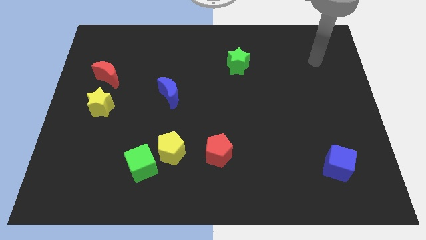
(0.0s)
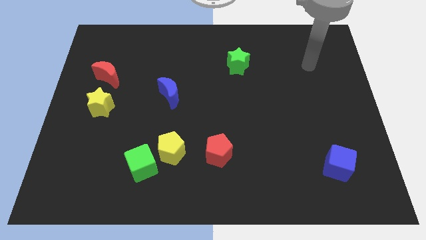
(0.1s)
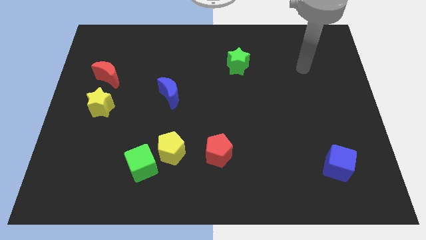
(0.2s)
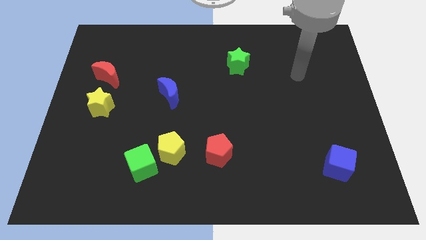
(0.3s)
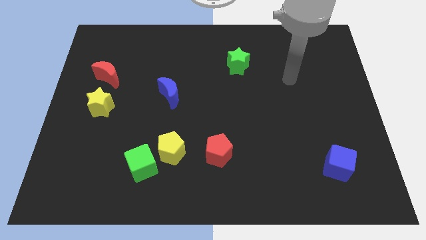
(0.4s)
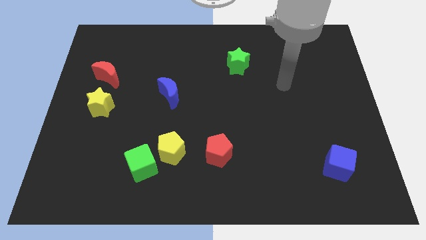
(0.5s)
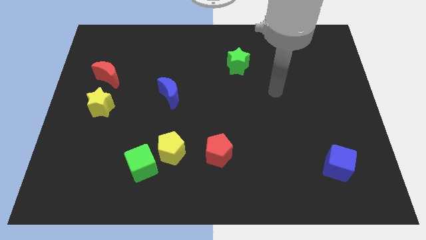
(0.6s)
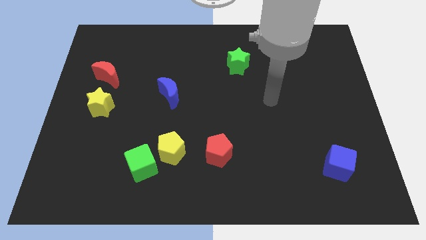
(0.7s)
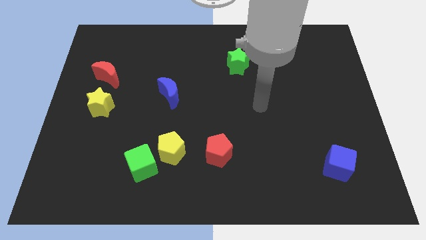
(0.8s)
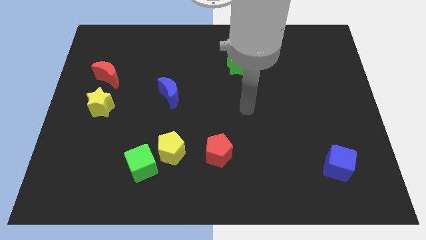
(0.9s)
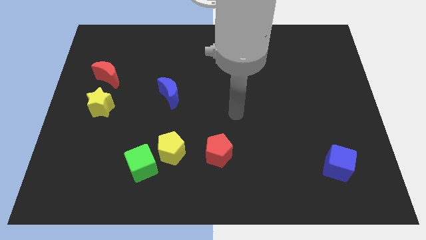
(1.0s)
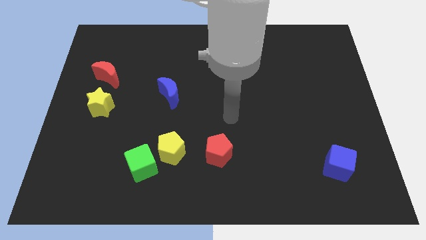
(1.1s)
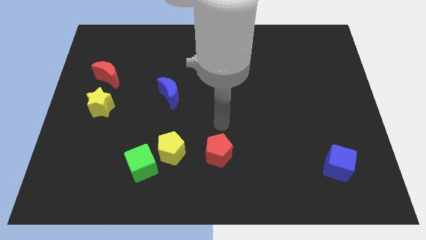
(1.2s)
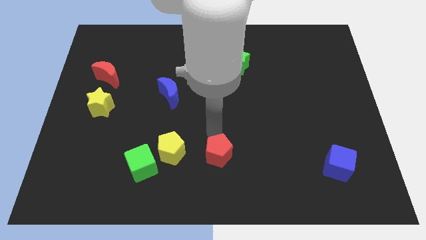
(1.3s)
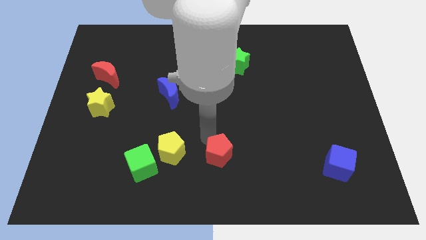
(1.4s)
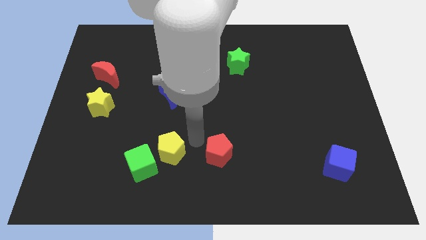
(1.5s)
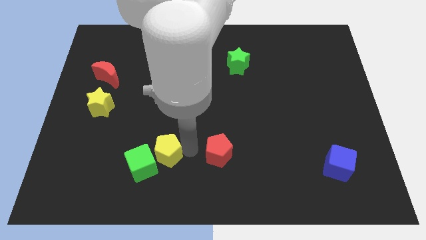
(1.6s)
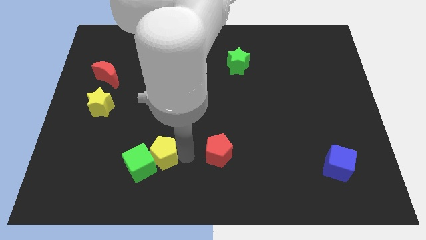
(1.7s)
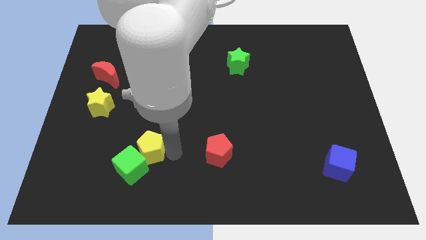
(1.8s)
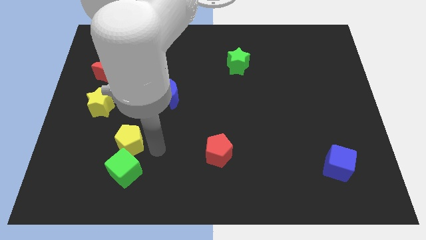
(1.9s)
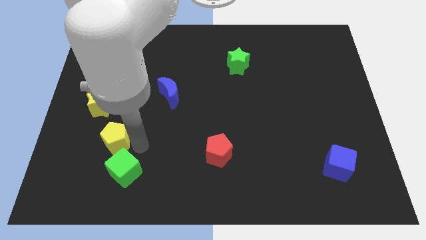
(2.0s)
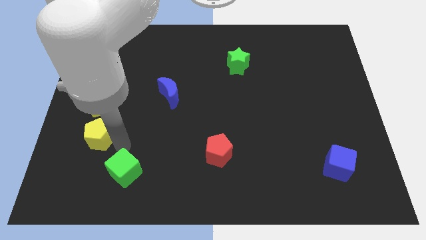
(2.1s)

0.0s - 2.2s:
separate the green cube from the yellow pentagon

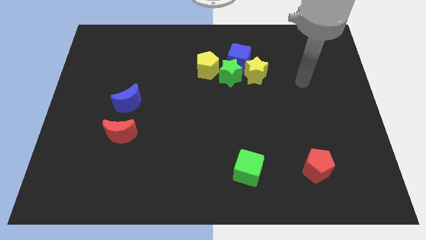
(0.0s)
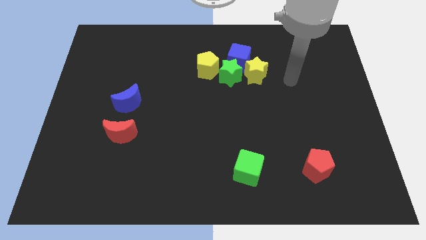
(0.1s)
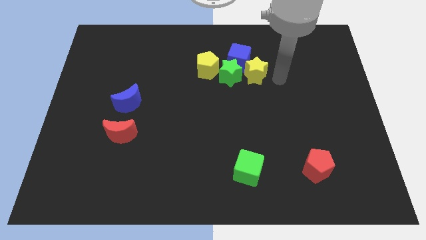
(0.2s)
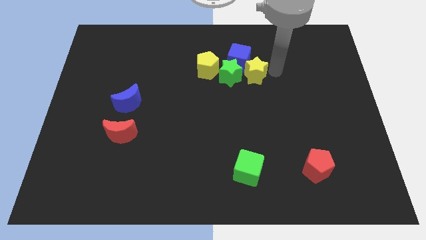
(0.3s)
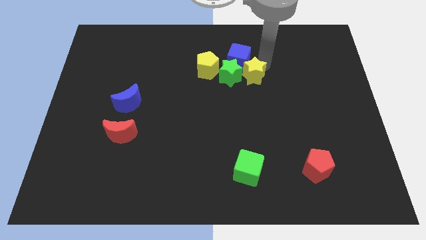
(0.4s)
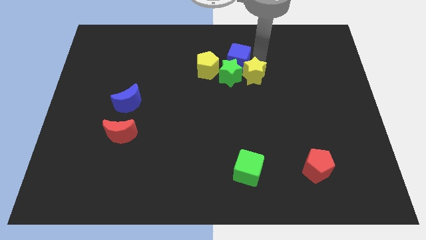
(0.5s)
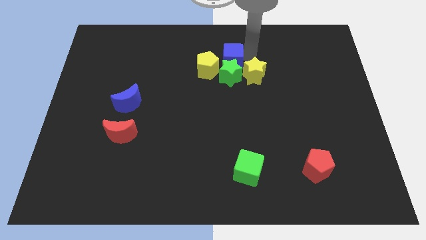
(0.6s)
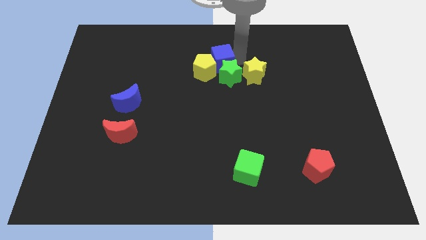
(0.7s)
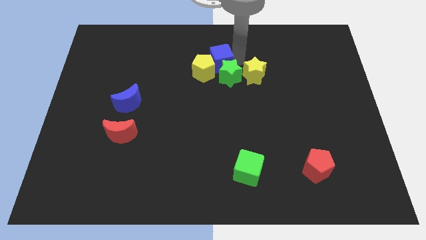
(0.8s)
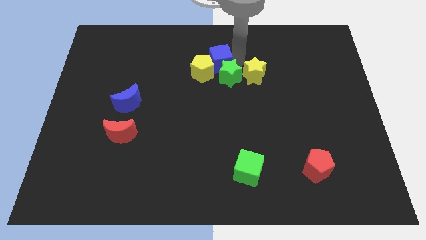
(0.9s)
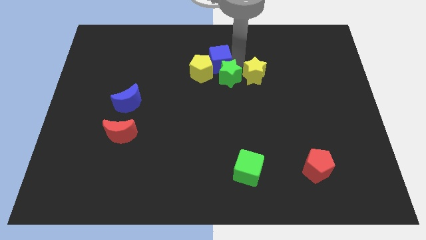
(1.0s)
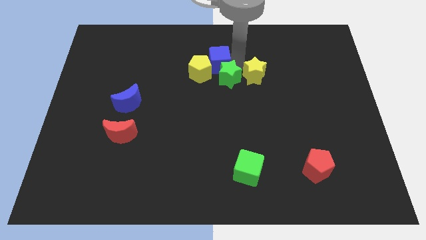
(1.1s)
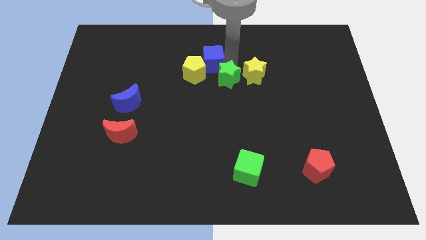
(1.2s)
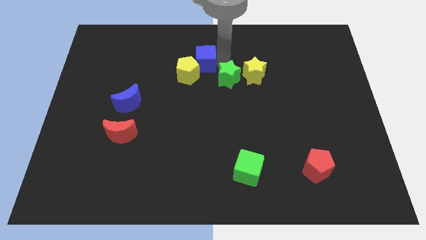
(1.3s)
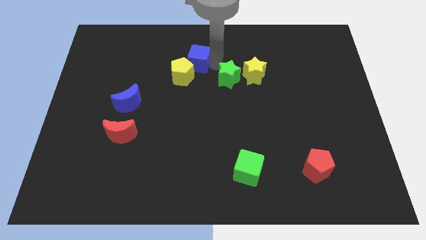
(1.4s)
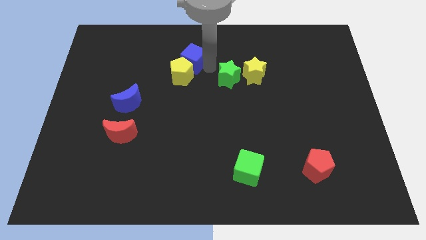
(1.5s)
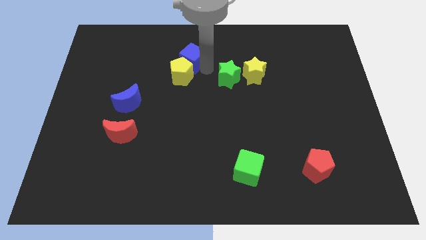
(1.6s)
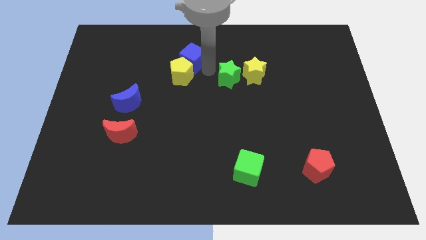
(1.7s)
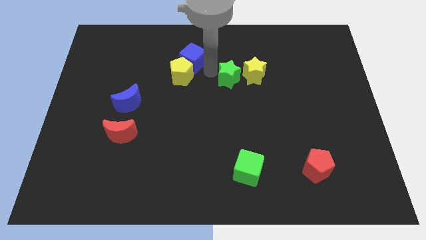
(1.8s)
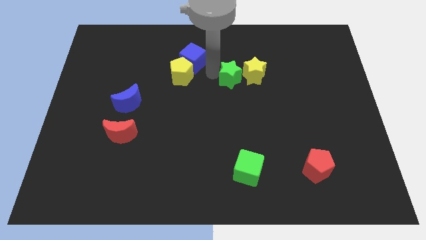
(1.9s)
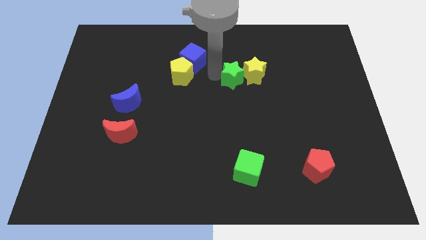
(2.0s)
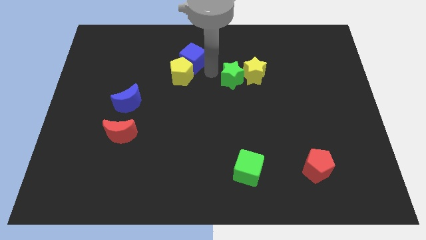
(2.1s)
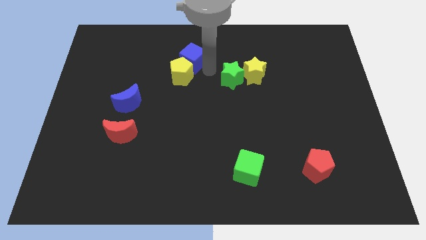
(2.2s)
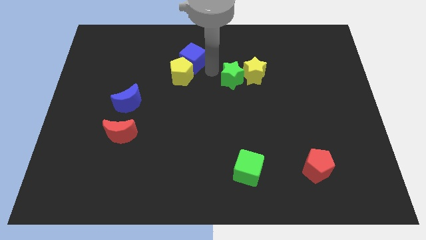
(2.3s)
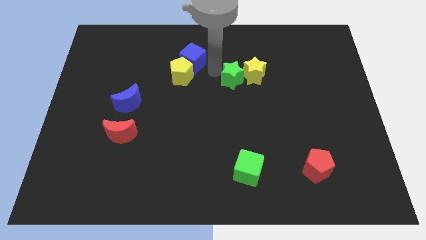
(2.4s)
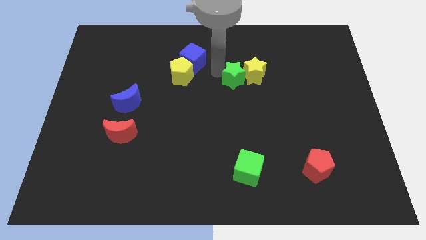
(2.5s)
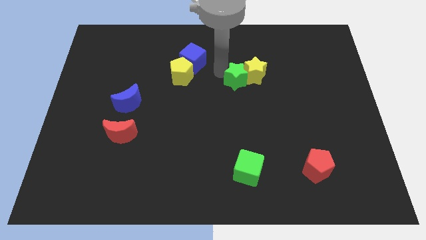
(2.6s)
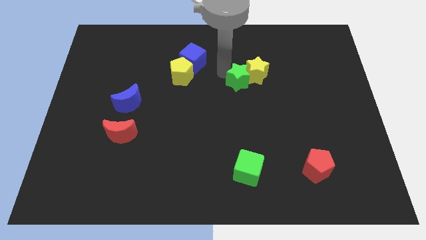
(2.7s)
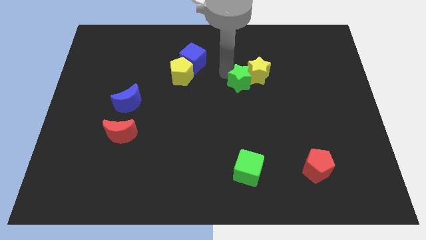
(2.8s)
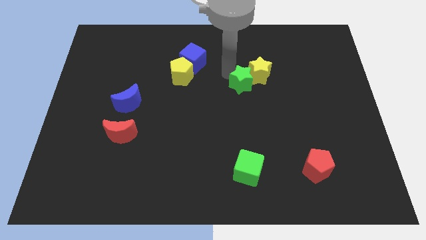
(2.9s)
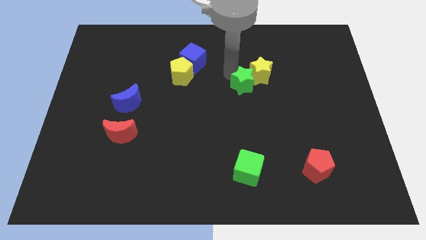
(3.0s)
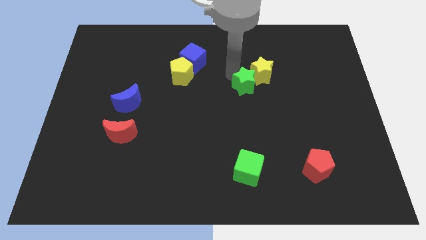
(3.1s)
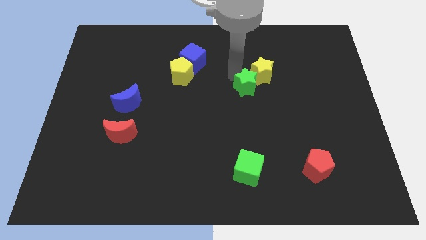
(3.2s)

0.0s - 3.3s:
move the green star away from the blue cube, yellow pentagon, and yellow star

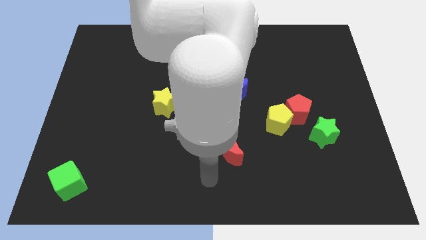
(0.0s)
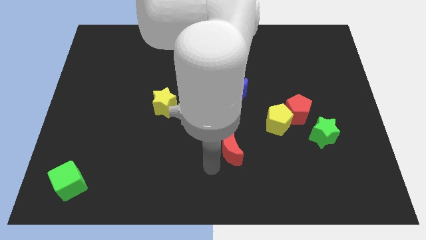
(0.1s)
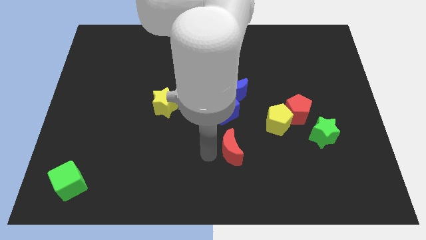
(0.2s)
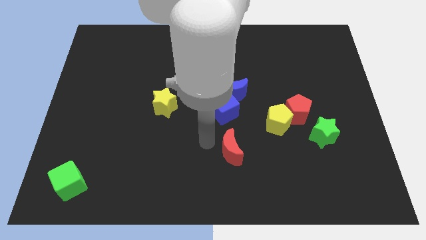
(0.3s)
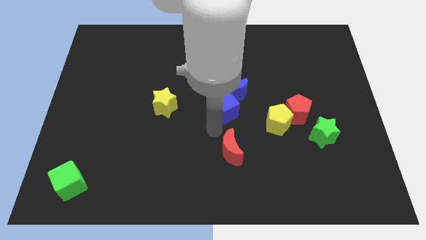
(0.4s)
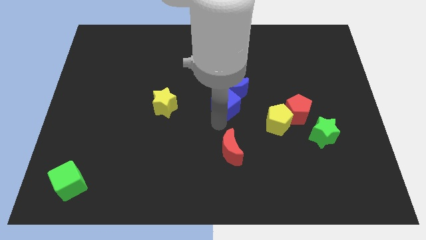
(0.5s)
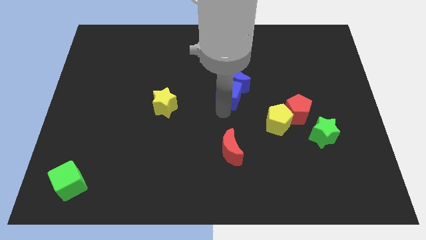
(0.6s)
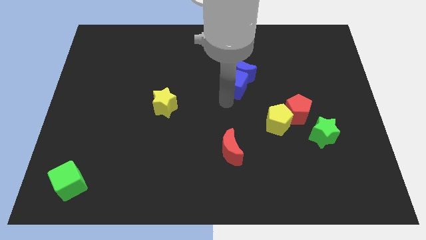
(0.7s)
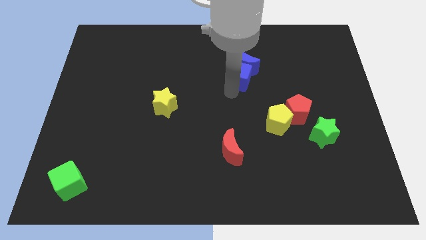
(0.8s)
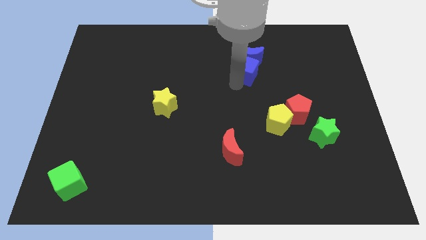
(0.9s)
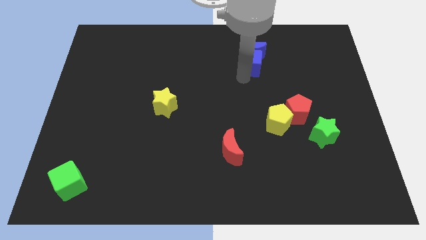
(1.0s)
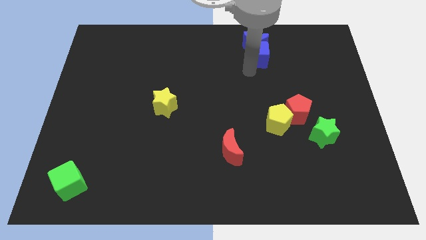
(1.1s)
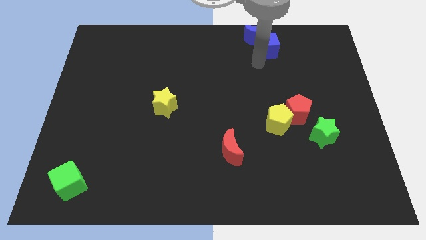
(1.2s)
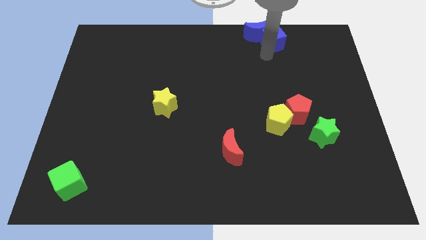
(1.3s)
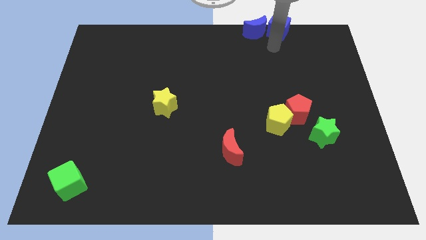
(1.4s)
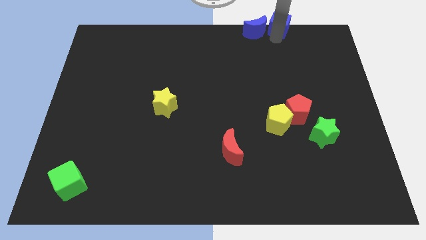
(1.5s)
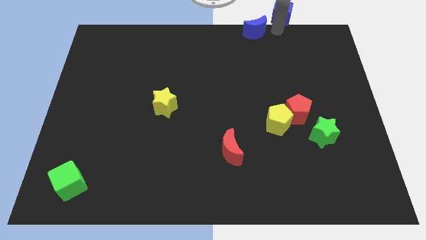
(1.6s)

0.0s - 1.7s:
move the blue moon away from the blue cube

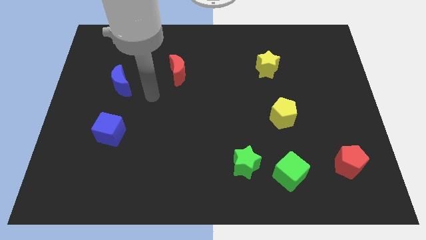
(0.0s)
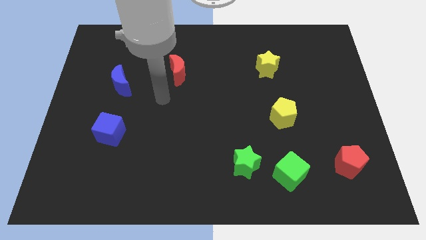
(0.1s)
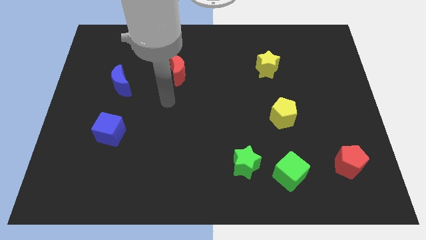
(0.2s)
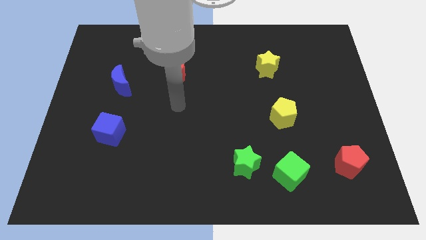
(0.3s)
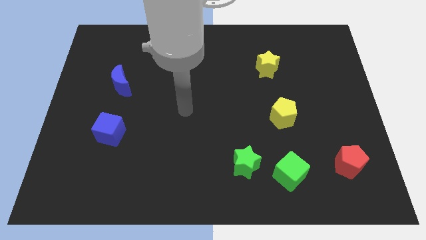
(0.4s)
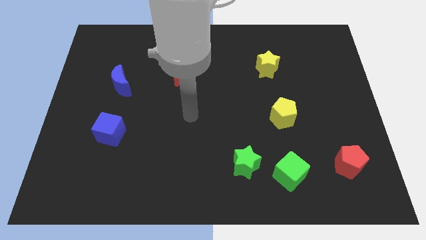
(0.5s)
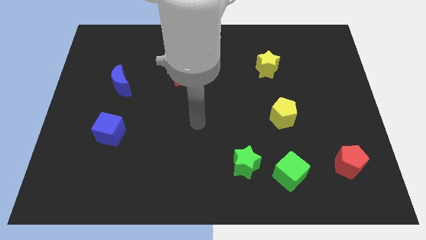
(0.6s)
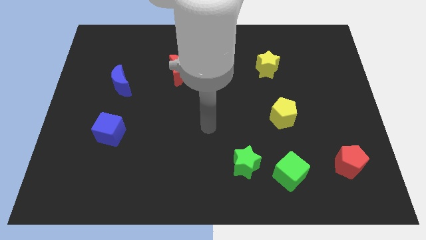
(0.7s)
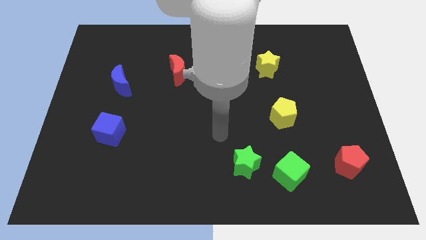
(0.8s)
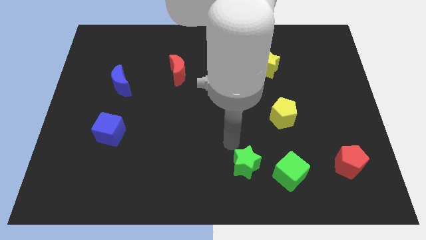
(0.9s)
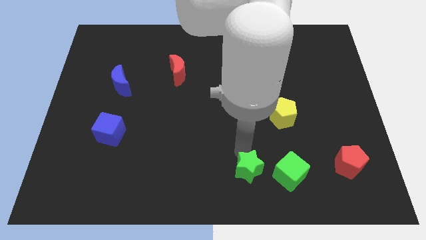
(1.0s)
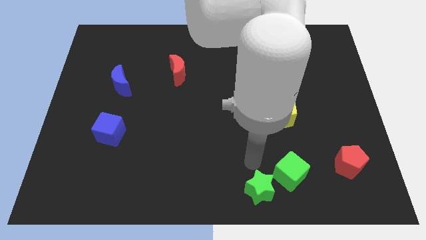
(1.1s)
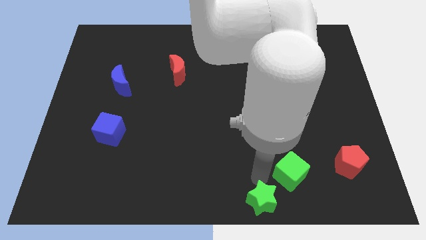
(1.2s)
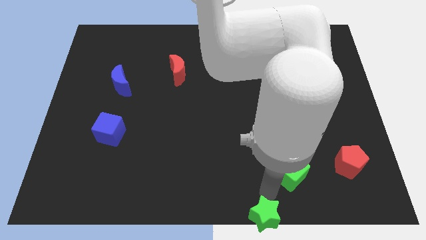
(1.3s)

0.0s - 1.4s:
move the green cube away from the green star

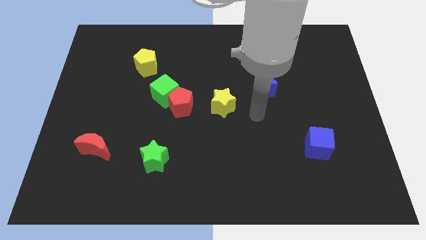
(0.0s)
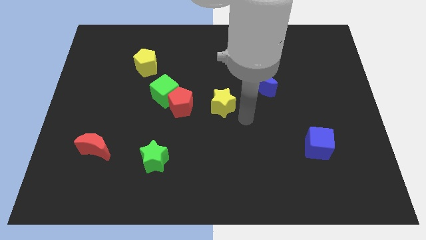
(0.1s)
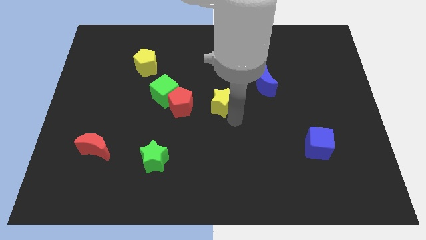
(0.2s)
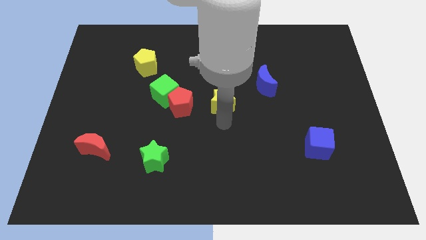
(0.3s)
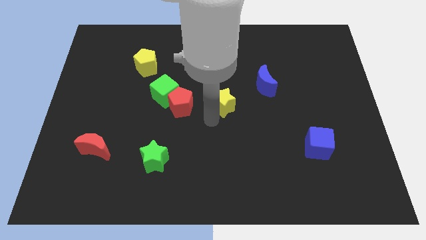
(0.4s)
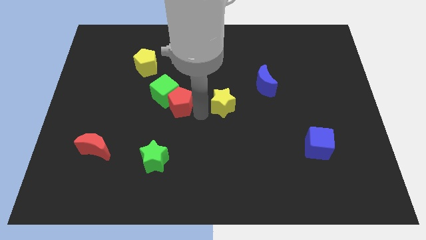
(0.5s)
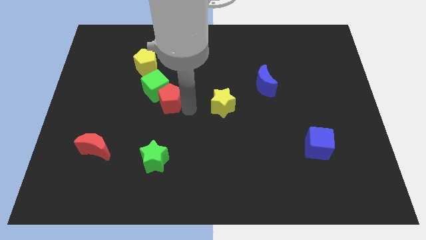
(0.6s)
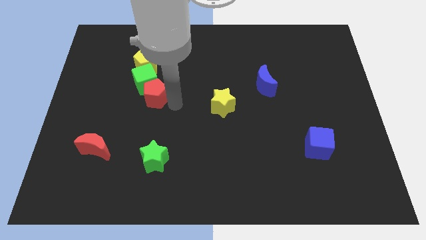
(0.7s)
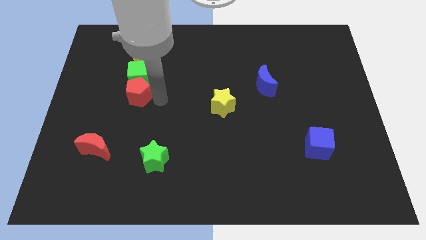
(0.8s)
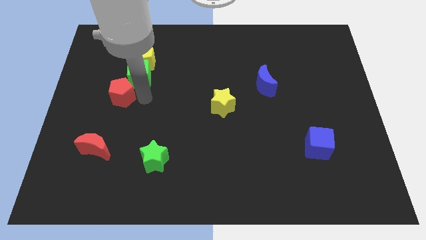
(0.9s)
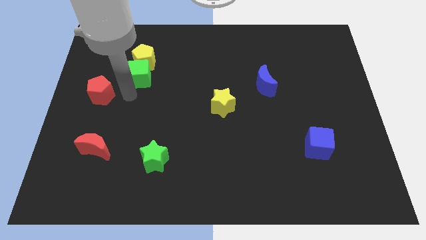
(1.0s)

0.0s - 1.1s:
pull the green cube apart from the red pentagon
